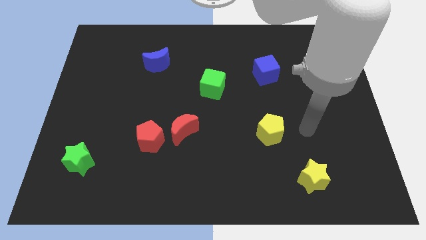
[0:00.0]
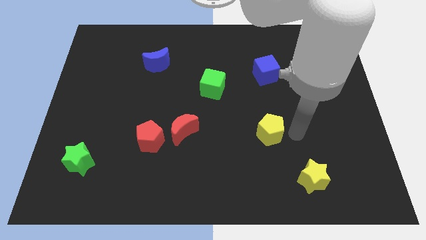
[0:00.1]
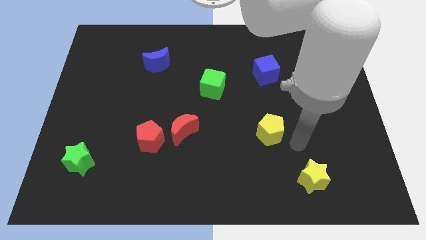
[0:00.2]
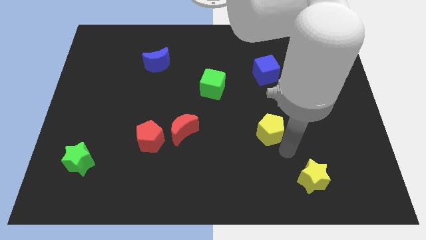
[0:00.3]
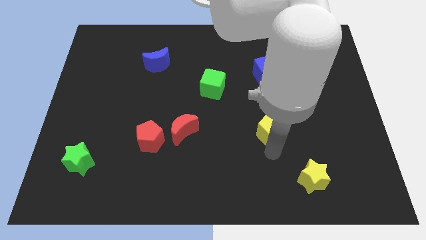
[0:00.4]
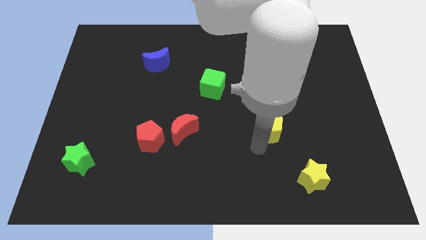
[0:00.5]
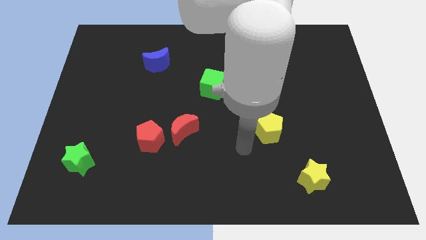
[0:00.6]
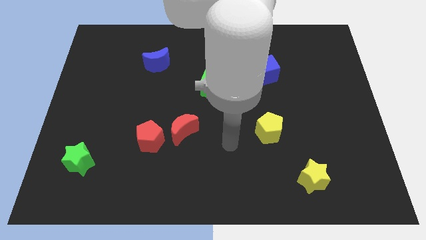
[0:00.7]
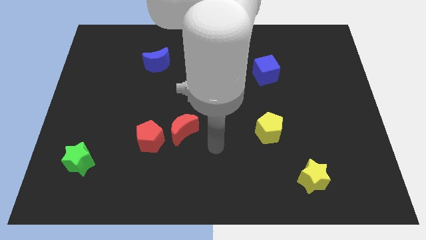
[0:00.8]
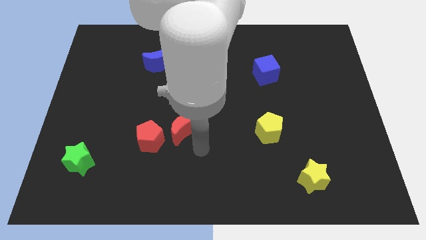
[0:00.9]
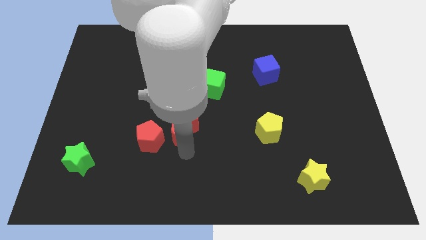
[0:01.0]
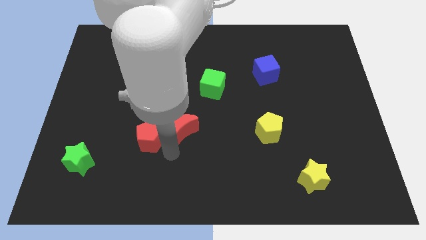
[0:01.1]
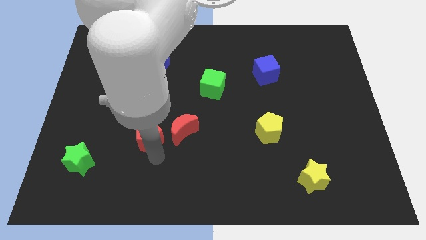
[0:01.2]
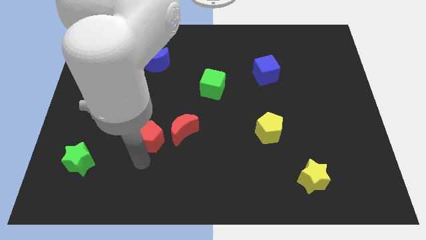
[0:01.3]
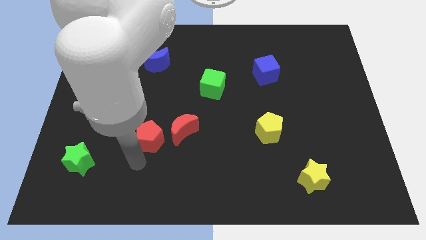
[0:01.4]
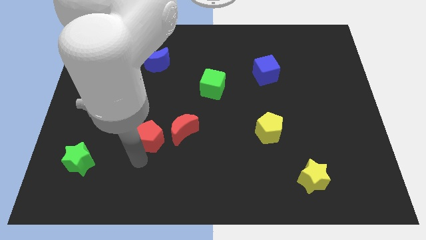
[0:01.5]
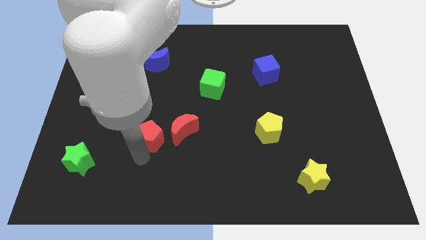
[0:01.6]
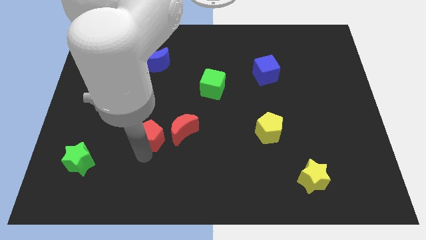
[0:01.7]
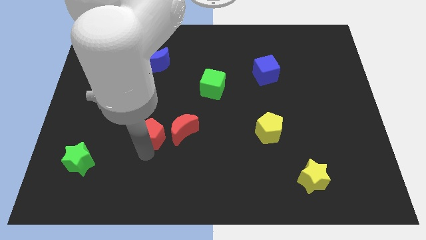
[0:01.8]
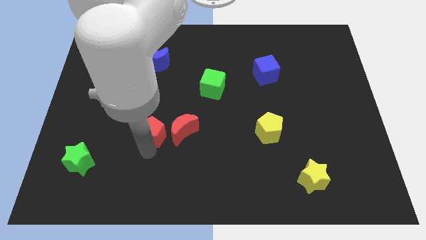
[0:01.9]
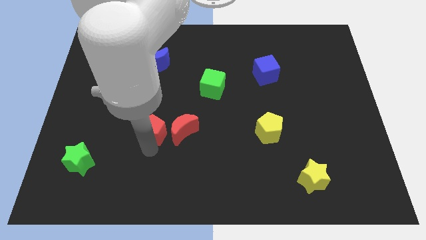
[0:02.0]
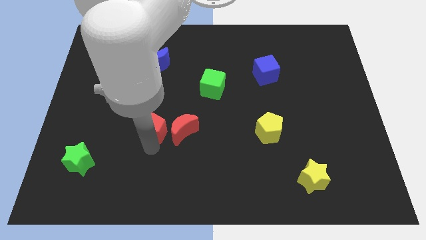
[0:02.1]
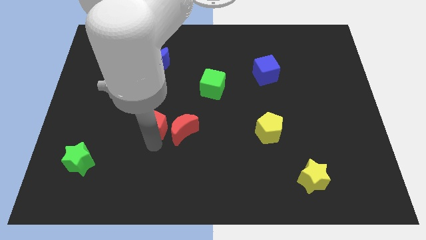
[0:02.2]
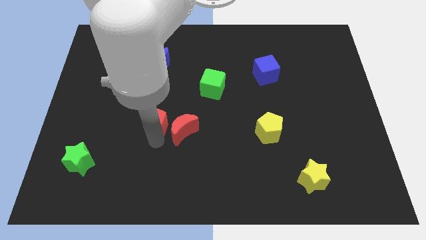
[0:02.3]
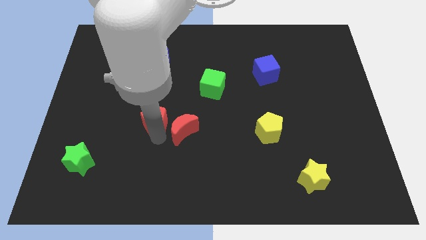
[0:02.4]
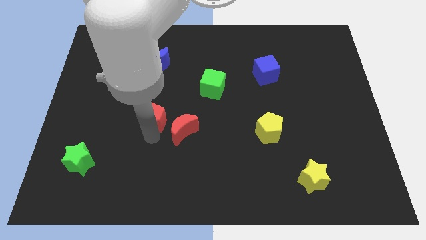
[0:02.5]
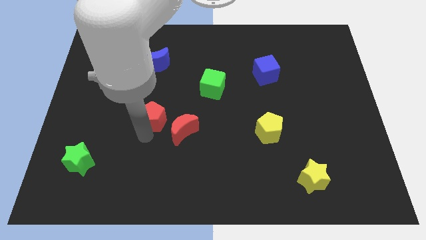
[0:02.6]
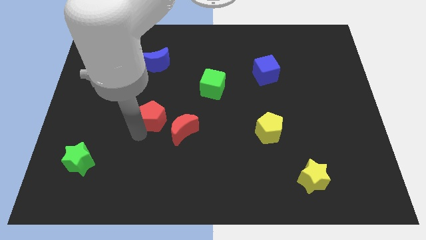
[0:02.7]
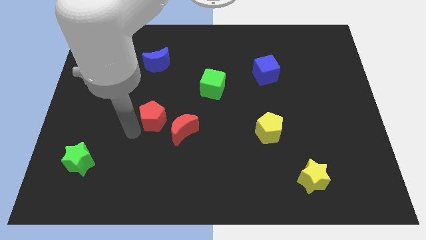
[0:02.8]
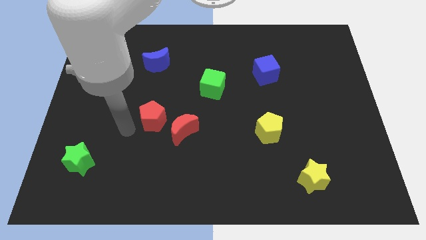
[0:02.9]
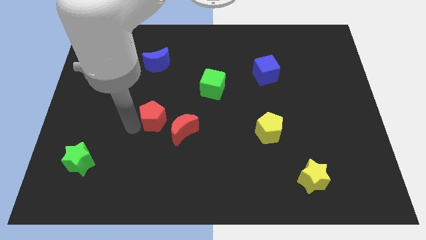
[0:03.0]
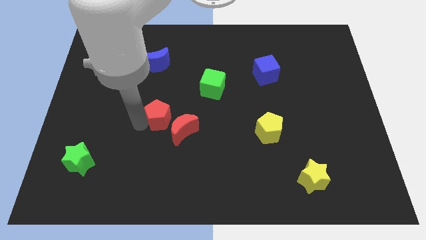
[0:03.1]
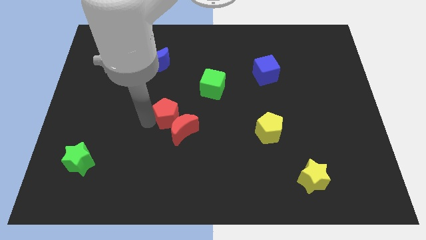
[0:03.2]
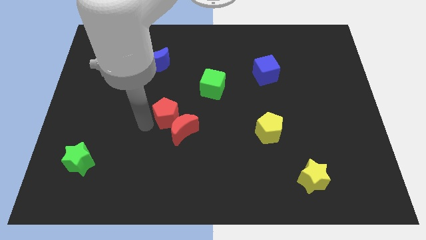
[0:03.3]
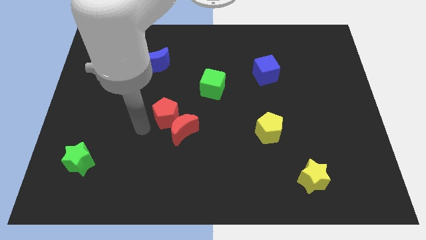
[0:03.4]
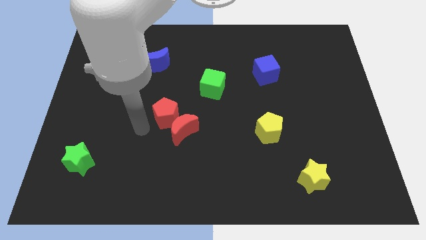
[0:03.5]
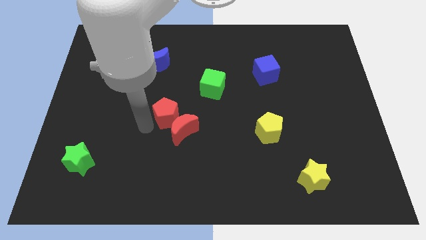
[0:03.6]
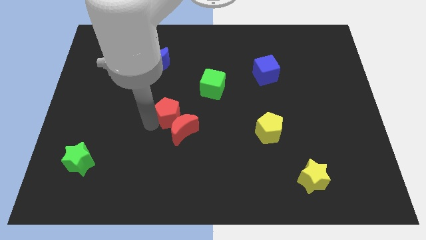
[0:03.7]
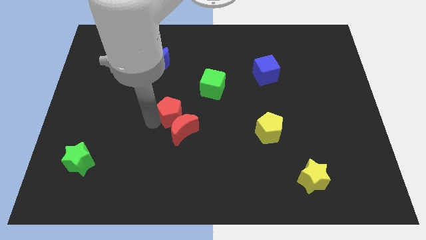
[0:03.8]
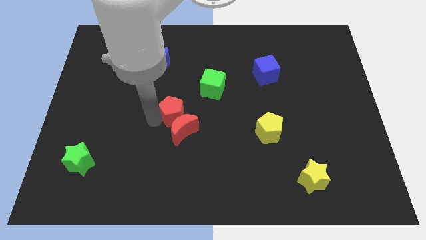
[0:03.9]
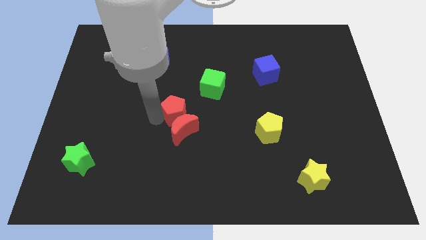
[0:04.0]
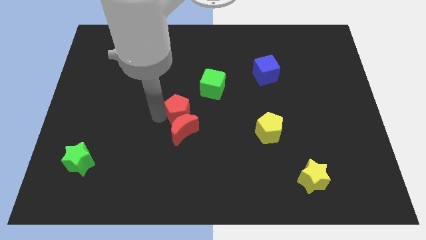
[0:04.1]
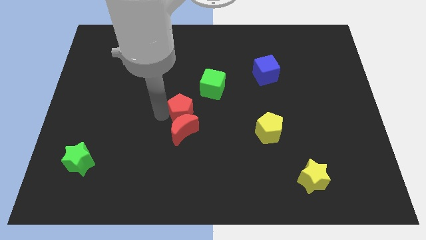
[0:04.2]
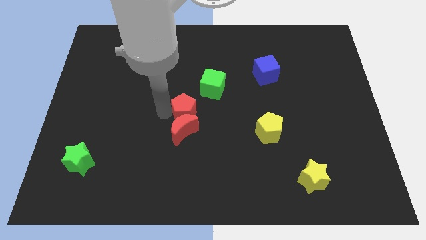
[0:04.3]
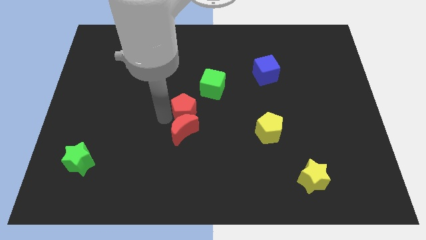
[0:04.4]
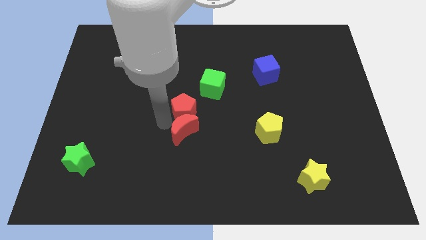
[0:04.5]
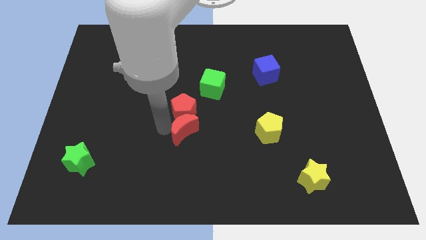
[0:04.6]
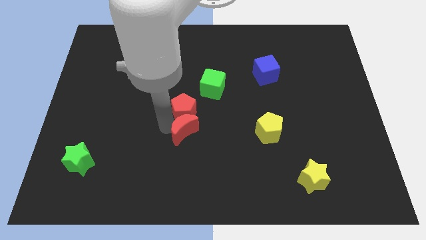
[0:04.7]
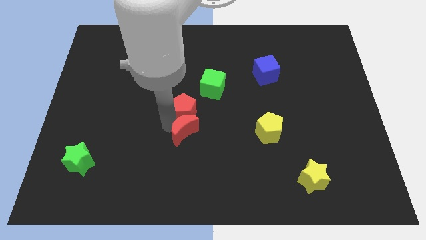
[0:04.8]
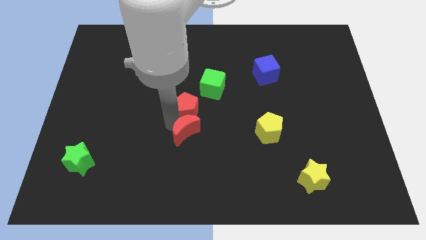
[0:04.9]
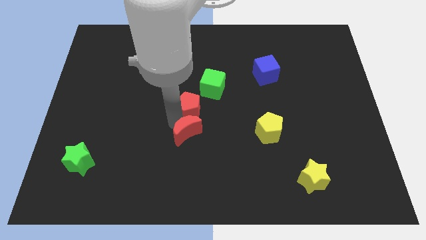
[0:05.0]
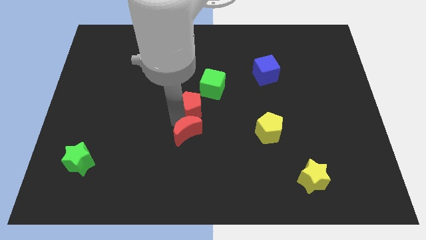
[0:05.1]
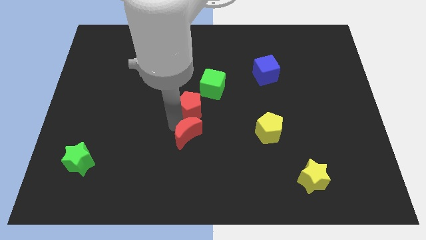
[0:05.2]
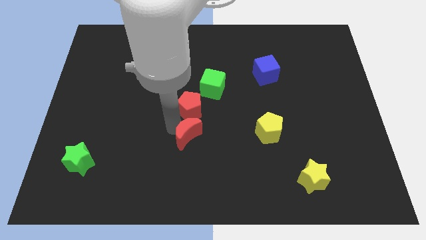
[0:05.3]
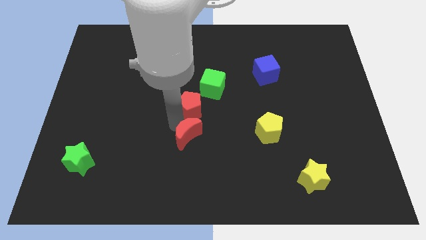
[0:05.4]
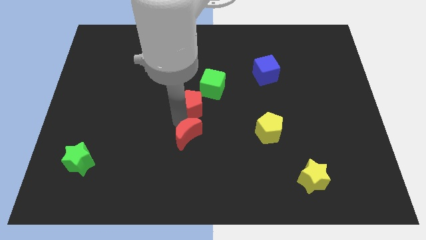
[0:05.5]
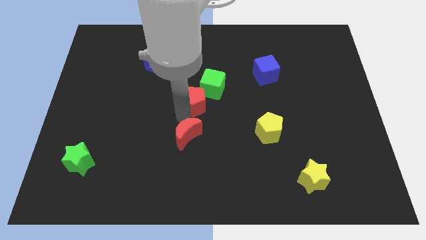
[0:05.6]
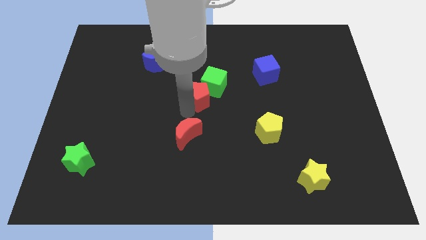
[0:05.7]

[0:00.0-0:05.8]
slide the red pentagon towards the green cube

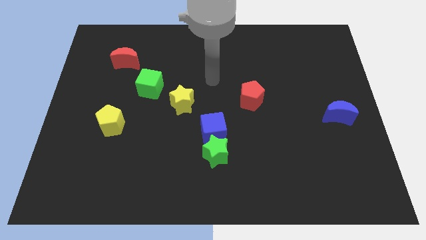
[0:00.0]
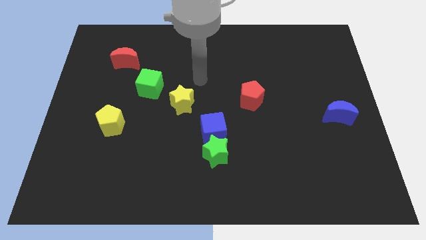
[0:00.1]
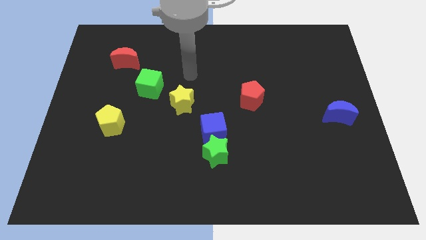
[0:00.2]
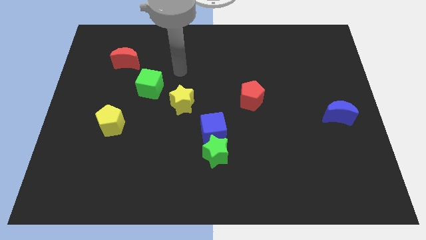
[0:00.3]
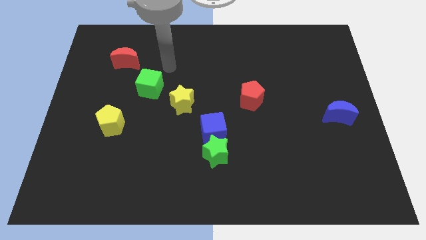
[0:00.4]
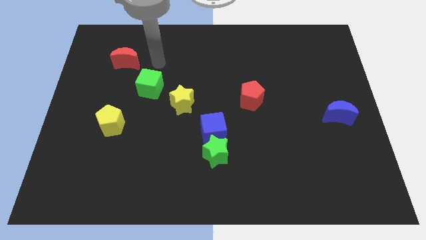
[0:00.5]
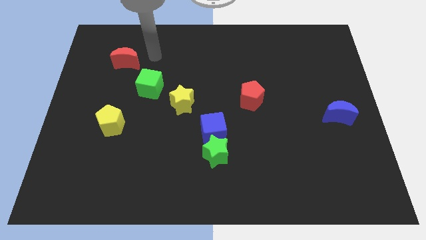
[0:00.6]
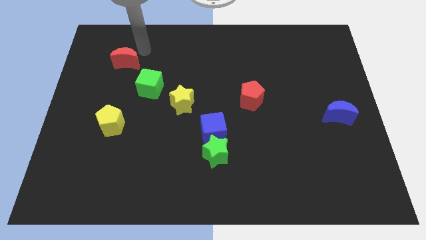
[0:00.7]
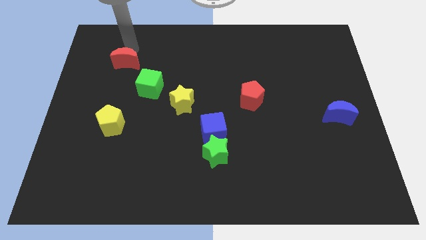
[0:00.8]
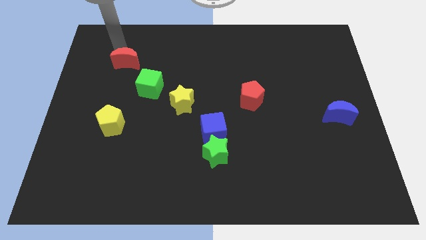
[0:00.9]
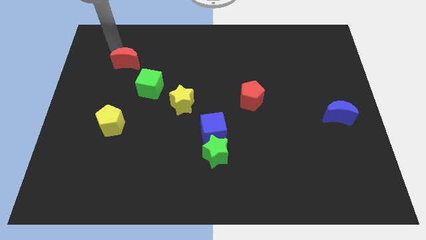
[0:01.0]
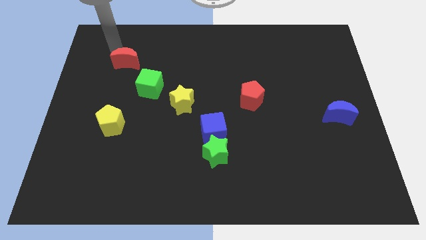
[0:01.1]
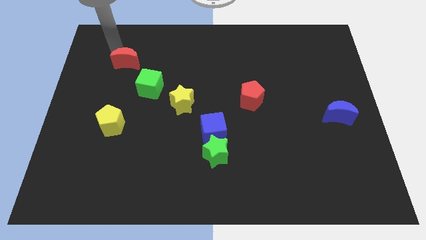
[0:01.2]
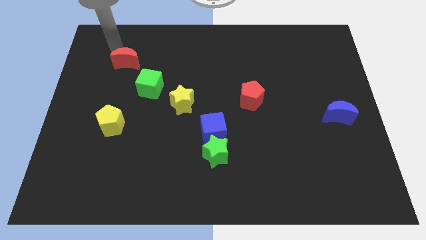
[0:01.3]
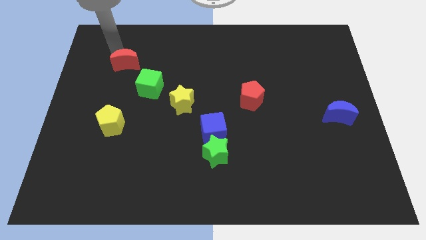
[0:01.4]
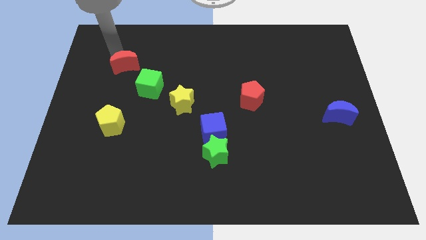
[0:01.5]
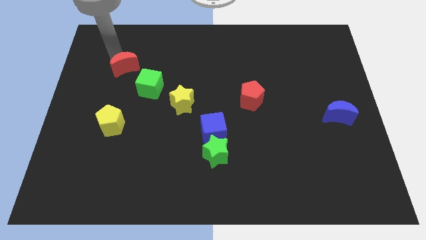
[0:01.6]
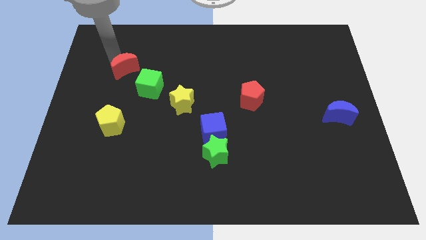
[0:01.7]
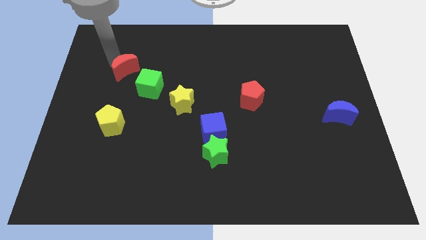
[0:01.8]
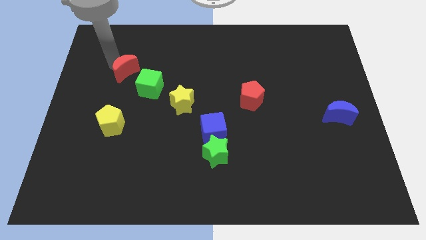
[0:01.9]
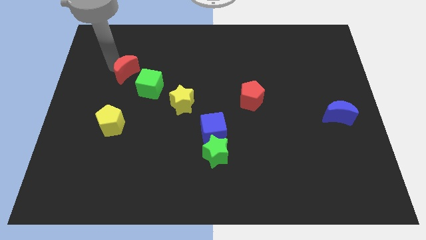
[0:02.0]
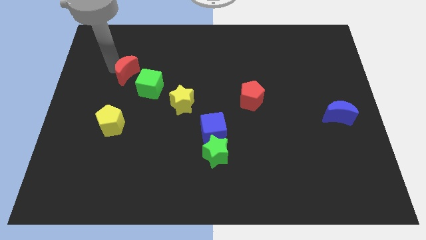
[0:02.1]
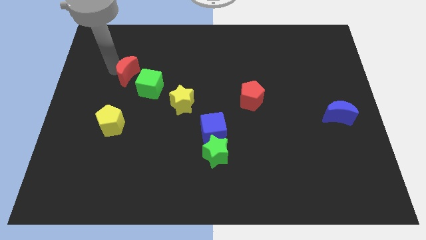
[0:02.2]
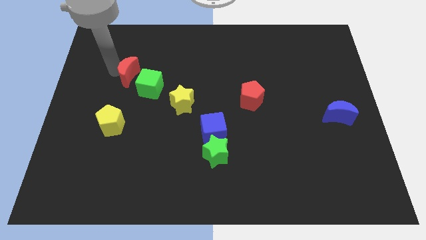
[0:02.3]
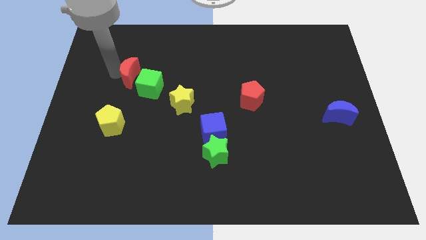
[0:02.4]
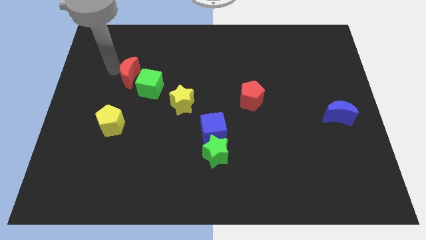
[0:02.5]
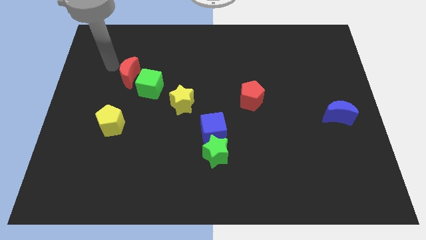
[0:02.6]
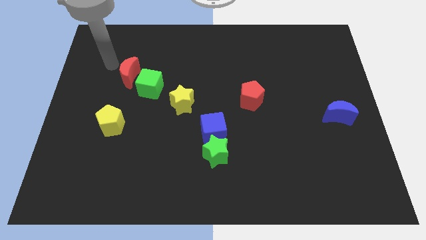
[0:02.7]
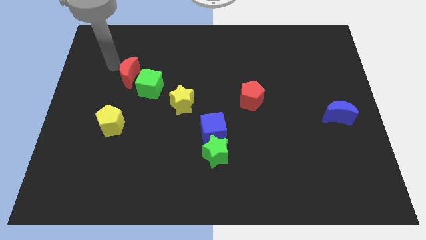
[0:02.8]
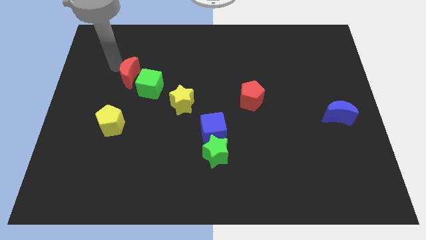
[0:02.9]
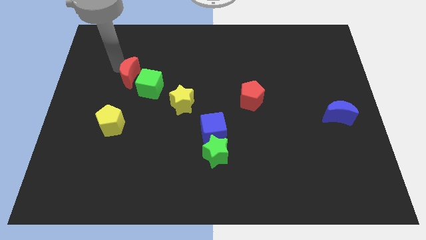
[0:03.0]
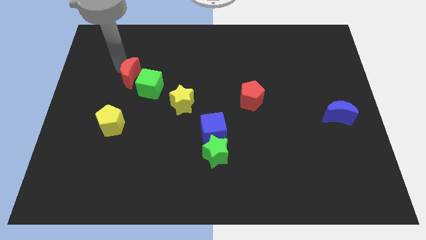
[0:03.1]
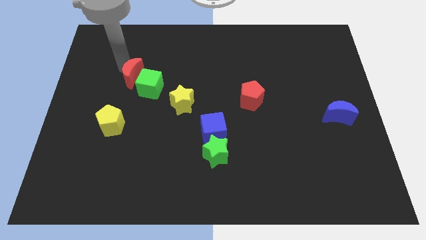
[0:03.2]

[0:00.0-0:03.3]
move the red moon to the green cube
